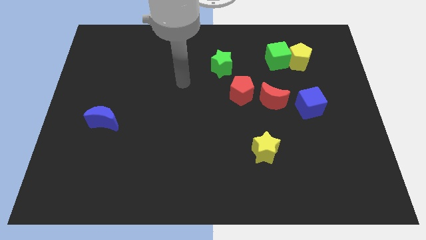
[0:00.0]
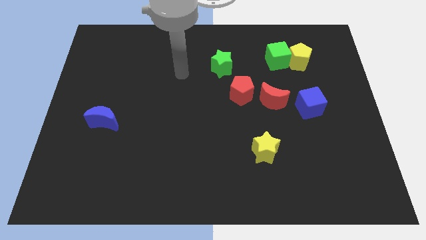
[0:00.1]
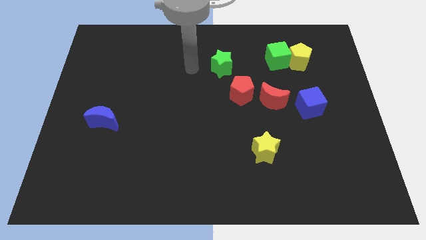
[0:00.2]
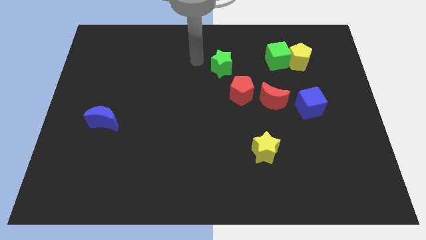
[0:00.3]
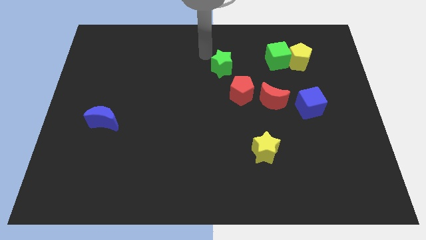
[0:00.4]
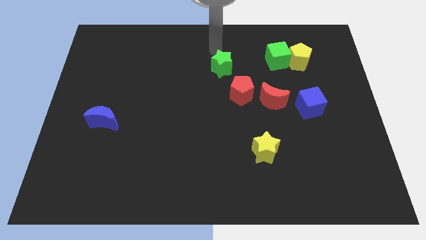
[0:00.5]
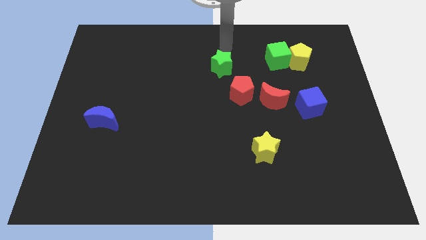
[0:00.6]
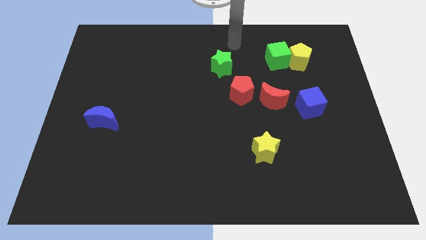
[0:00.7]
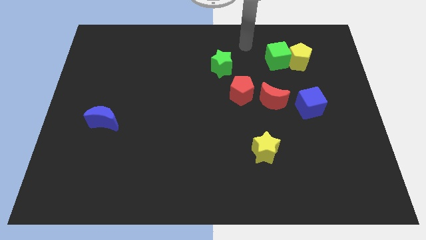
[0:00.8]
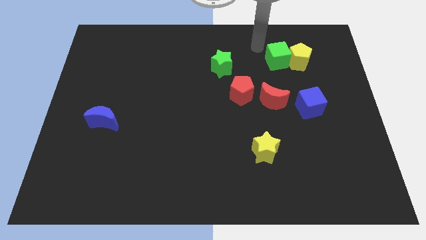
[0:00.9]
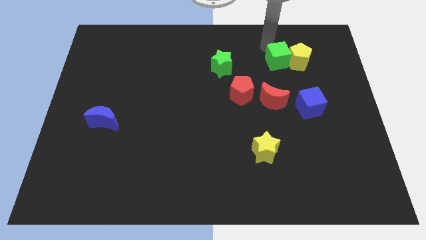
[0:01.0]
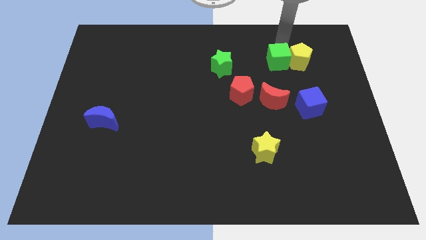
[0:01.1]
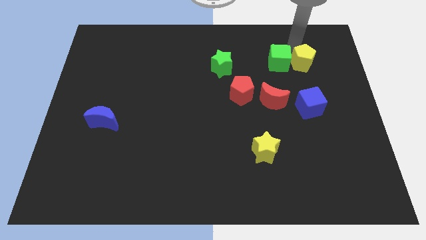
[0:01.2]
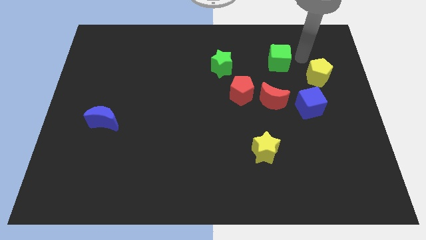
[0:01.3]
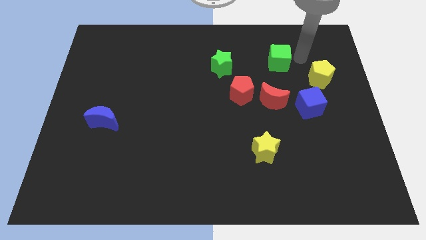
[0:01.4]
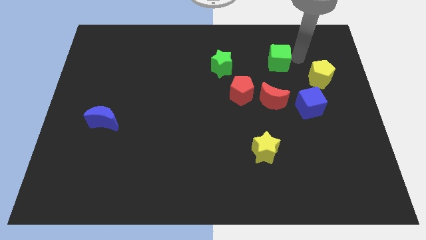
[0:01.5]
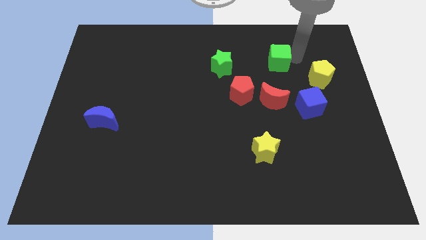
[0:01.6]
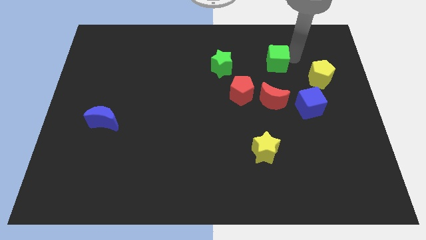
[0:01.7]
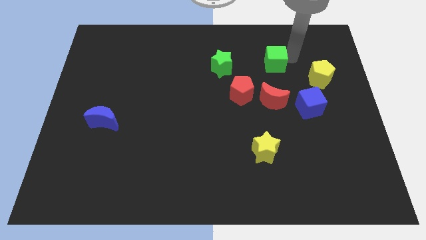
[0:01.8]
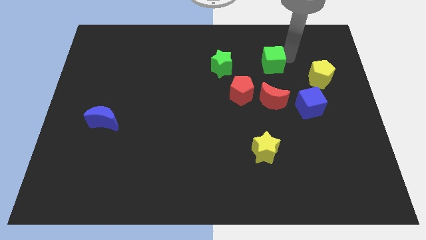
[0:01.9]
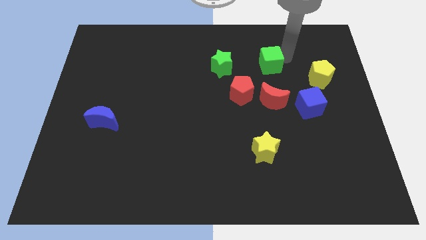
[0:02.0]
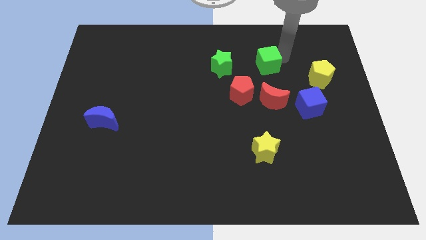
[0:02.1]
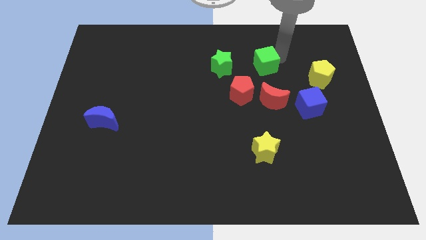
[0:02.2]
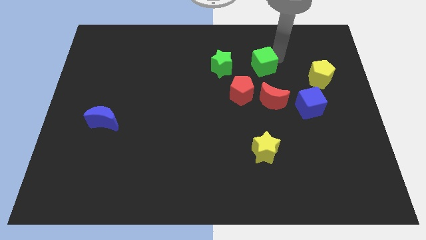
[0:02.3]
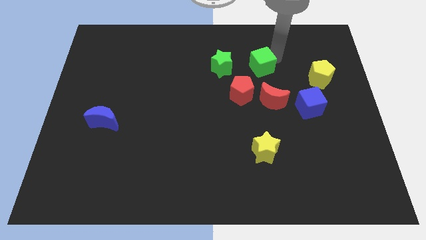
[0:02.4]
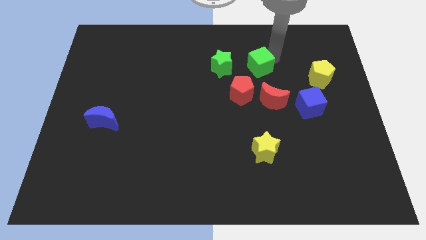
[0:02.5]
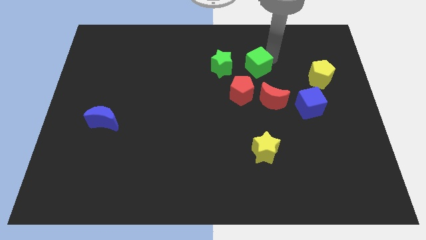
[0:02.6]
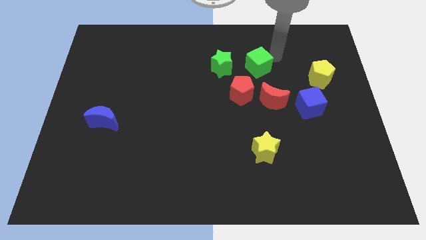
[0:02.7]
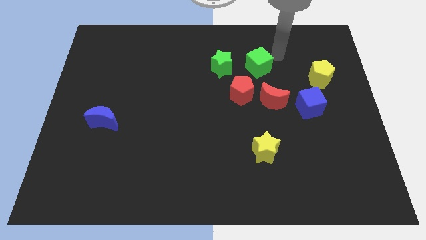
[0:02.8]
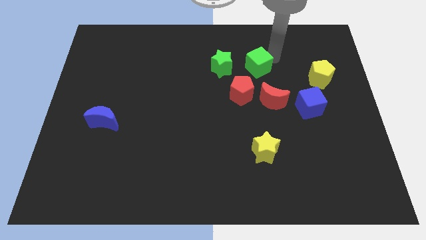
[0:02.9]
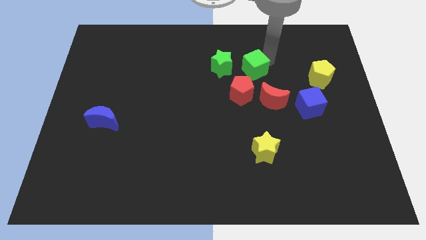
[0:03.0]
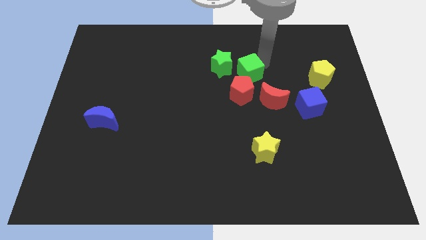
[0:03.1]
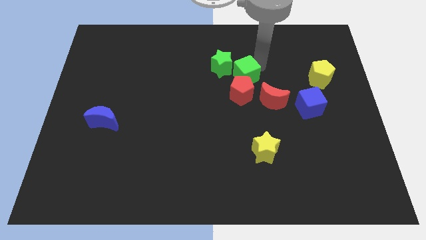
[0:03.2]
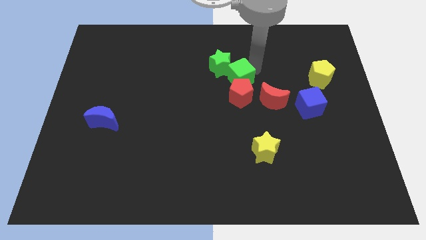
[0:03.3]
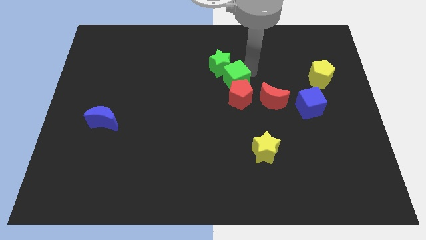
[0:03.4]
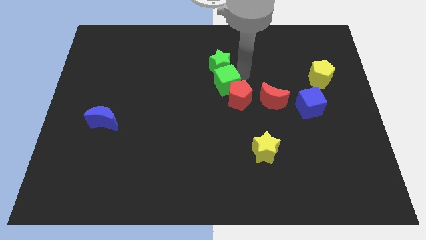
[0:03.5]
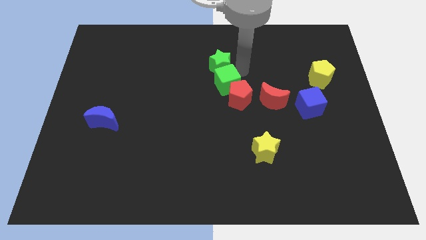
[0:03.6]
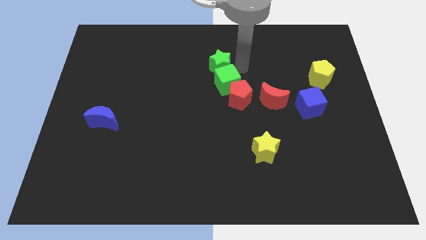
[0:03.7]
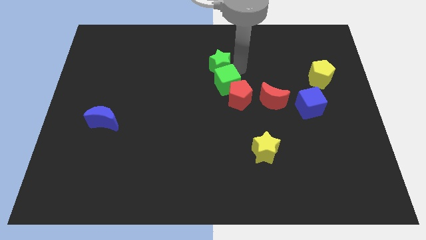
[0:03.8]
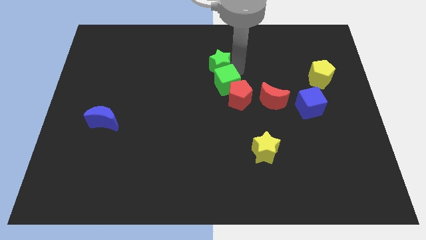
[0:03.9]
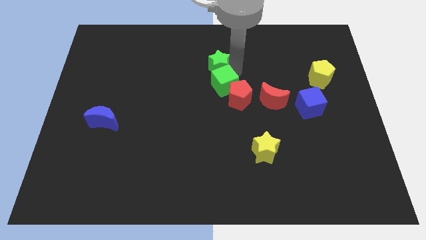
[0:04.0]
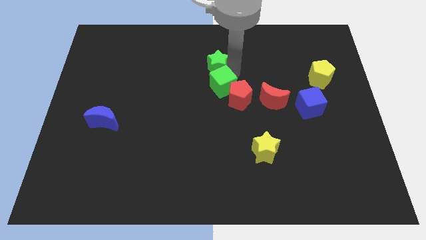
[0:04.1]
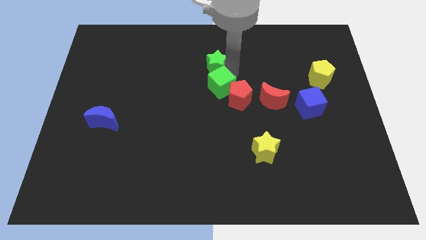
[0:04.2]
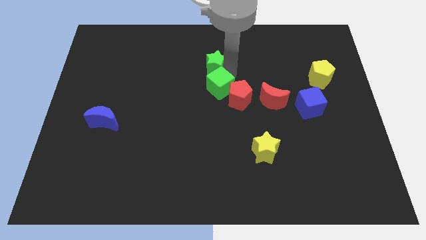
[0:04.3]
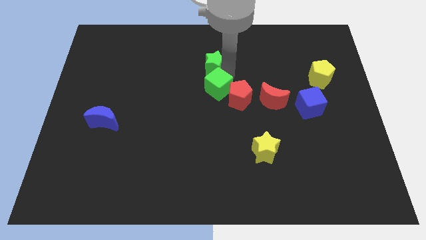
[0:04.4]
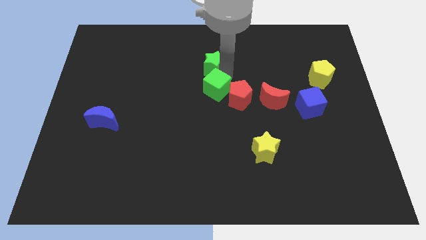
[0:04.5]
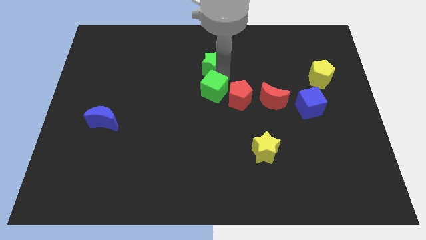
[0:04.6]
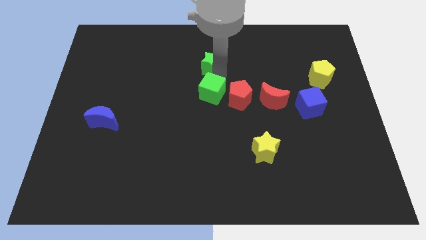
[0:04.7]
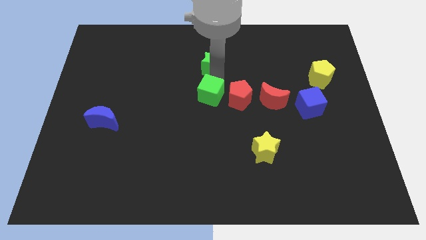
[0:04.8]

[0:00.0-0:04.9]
slide the green cube down and left

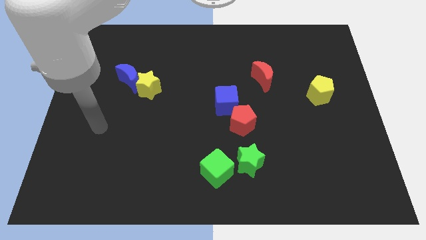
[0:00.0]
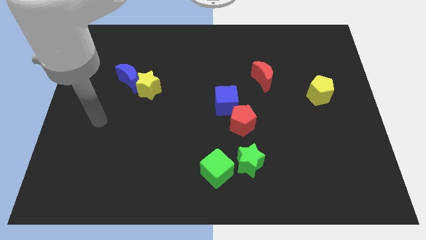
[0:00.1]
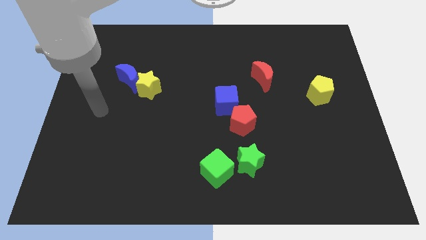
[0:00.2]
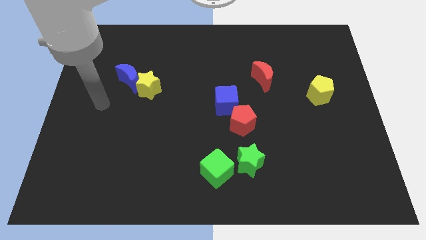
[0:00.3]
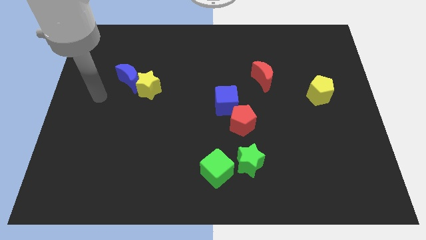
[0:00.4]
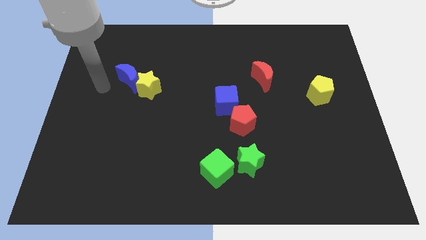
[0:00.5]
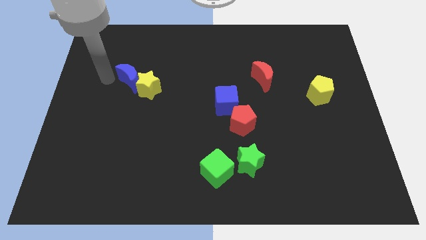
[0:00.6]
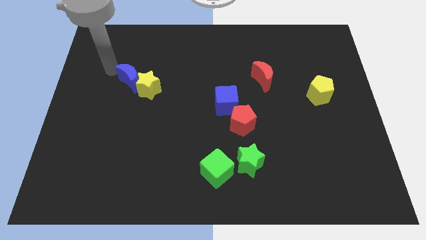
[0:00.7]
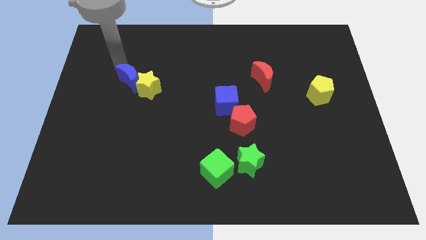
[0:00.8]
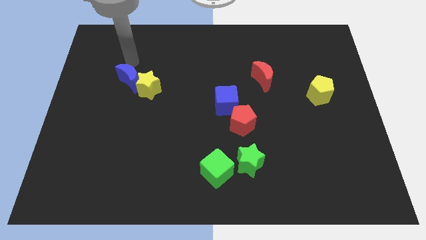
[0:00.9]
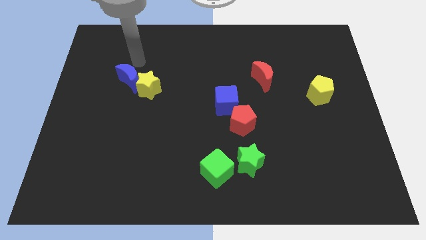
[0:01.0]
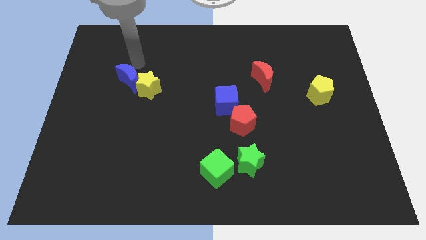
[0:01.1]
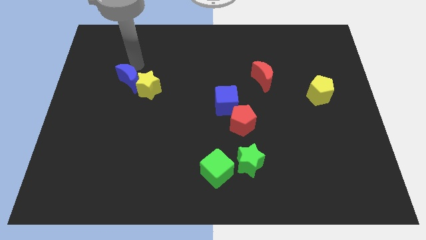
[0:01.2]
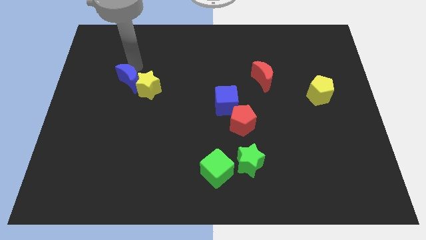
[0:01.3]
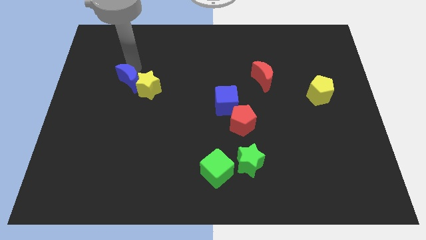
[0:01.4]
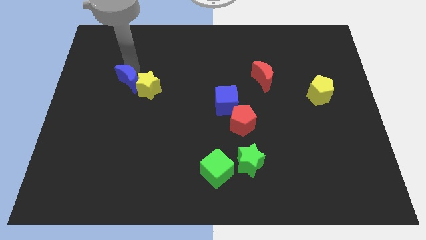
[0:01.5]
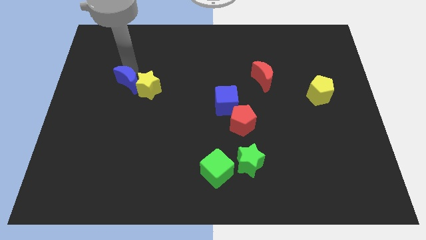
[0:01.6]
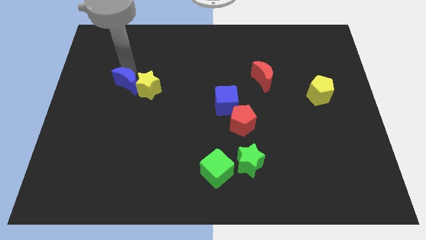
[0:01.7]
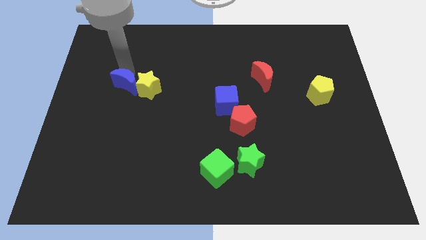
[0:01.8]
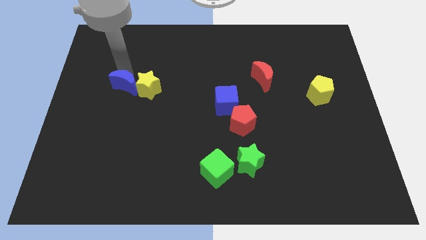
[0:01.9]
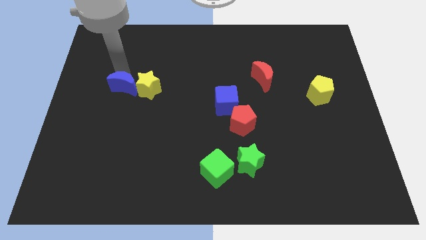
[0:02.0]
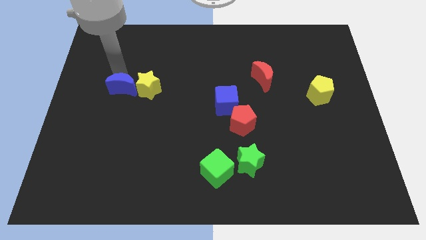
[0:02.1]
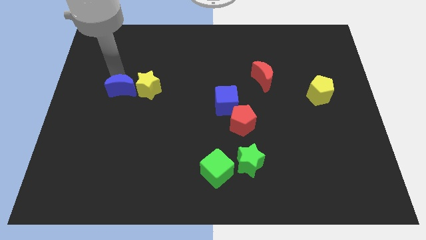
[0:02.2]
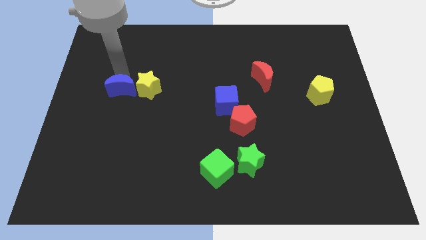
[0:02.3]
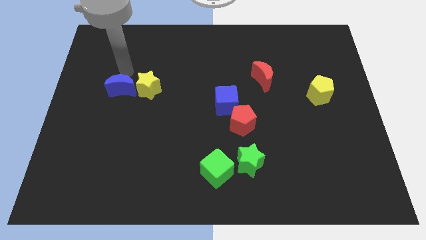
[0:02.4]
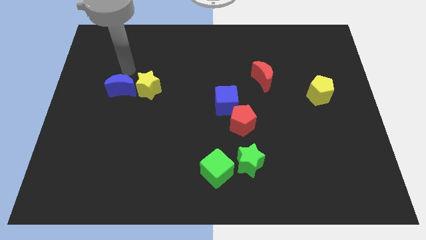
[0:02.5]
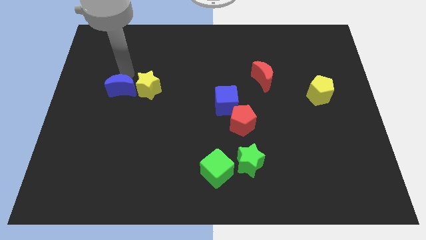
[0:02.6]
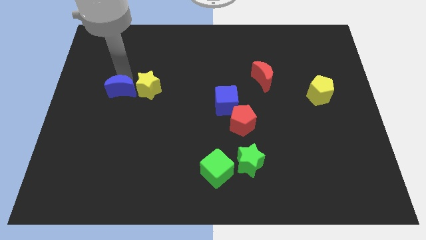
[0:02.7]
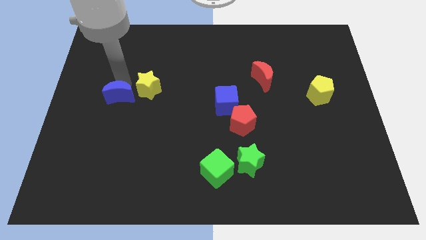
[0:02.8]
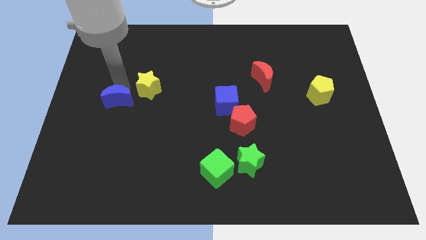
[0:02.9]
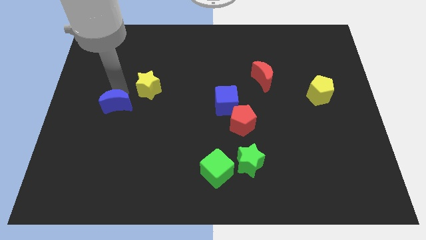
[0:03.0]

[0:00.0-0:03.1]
push the blue moon down a little
